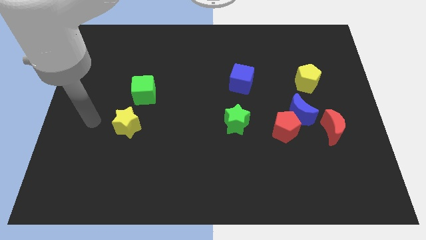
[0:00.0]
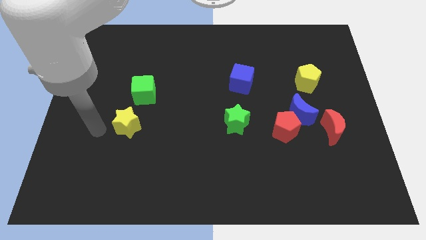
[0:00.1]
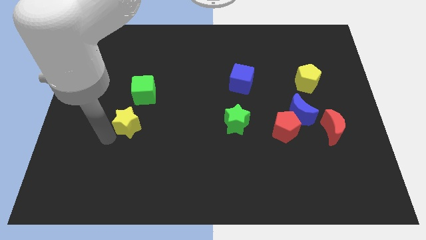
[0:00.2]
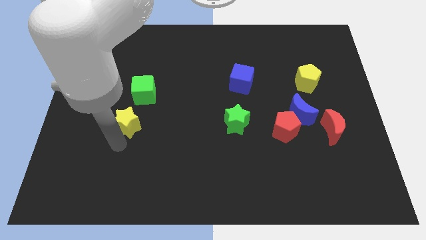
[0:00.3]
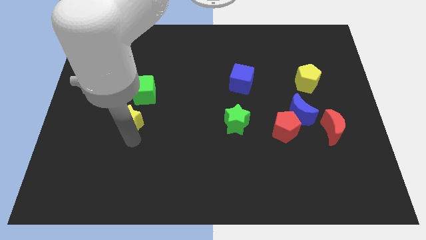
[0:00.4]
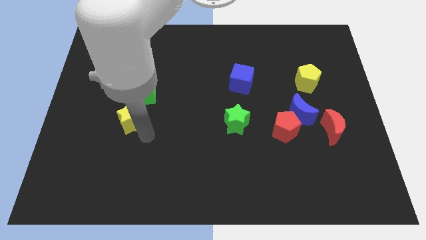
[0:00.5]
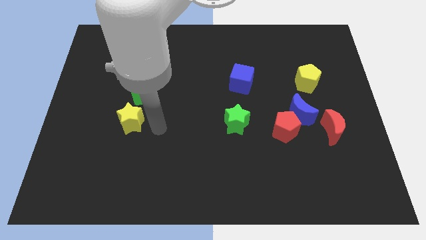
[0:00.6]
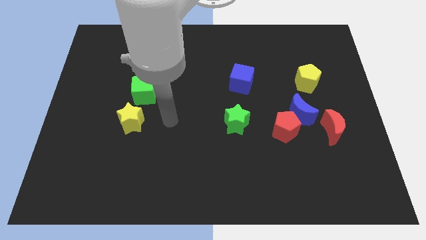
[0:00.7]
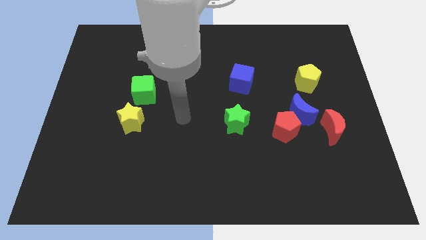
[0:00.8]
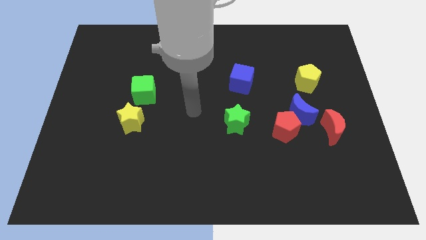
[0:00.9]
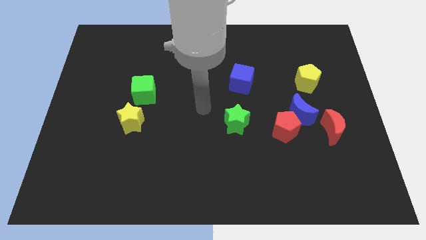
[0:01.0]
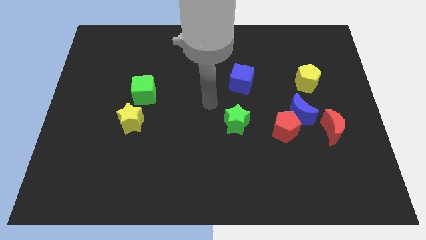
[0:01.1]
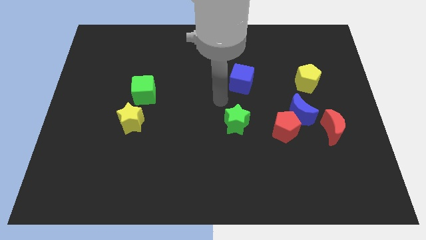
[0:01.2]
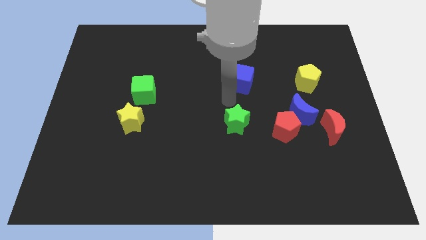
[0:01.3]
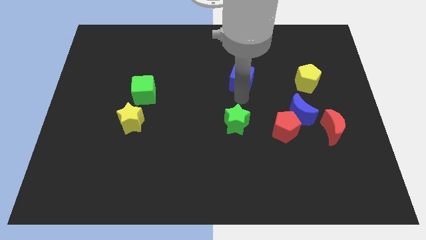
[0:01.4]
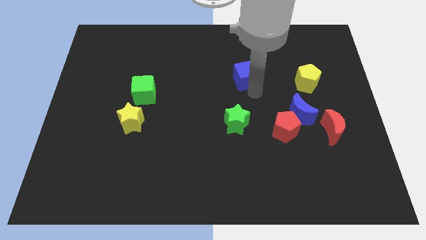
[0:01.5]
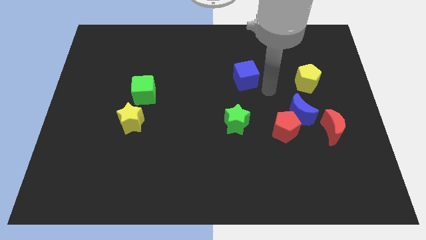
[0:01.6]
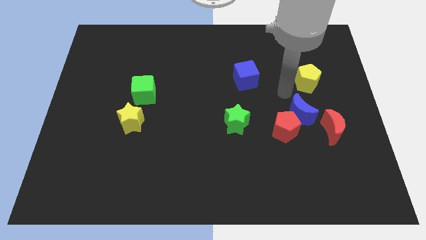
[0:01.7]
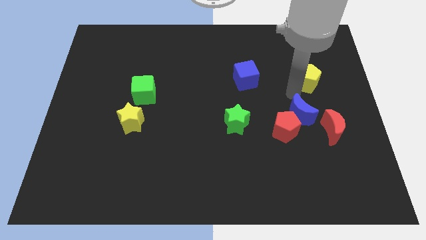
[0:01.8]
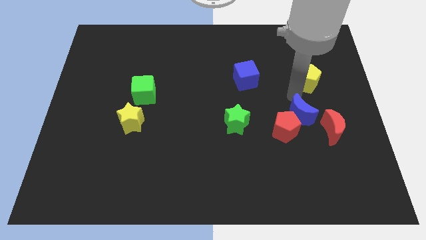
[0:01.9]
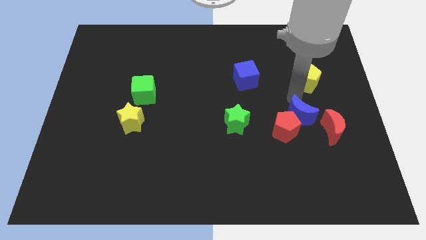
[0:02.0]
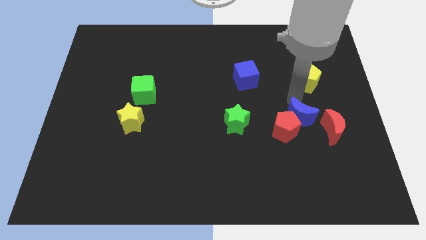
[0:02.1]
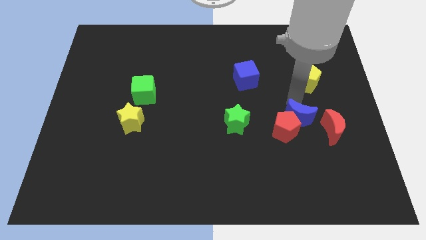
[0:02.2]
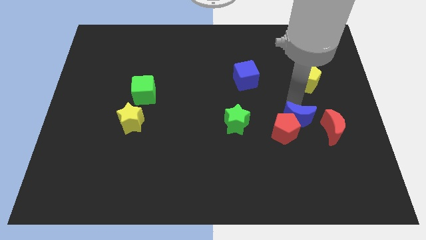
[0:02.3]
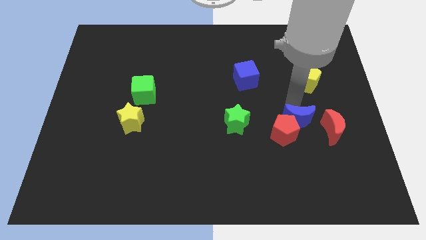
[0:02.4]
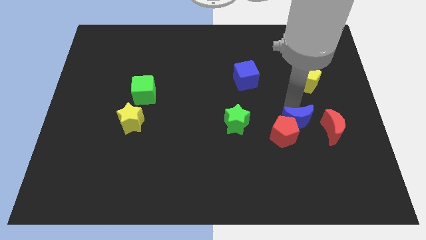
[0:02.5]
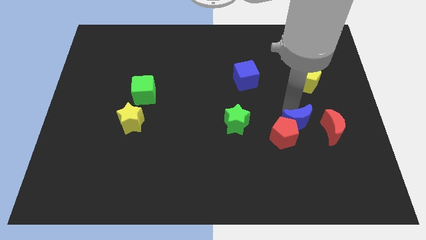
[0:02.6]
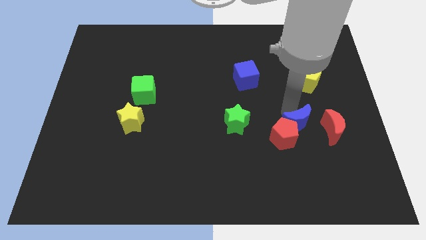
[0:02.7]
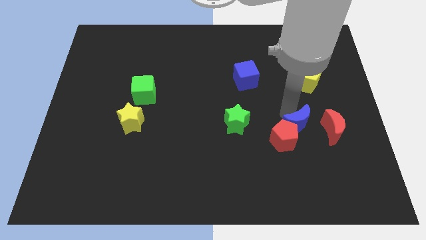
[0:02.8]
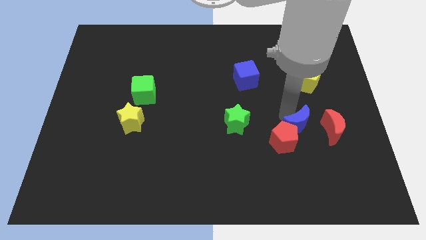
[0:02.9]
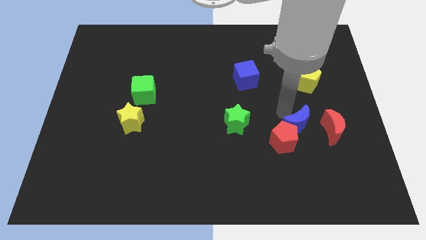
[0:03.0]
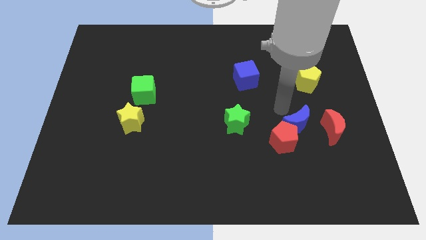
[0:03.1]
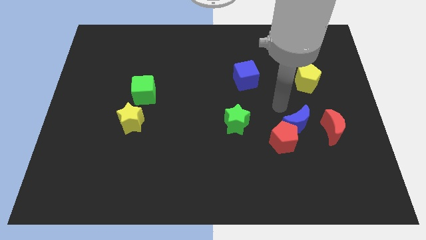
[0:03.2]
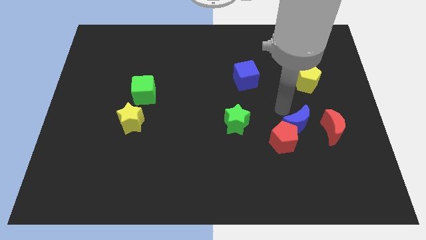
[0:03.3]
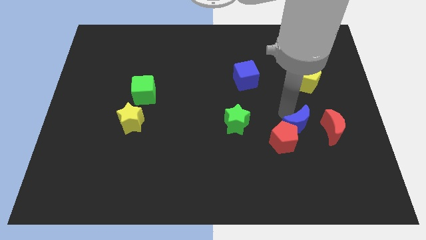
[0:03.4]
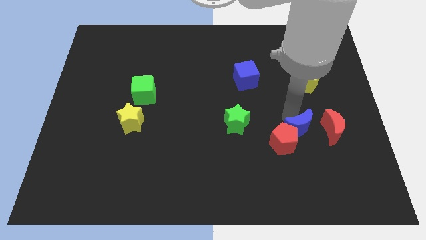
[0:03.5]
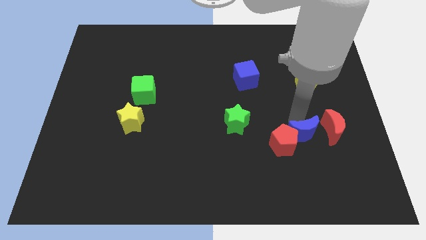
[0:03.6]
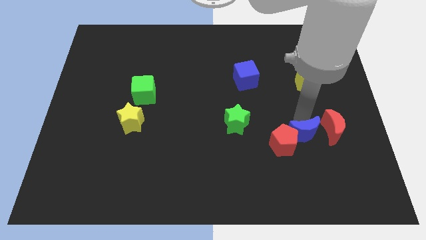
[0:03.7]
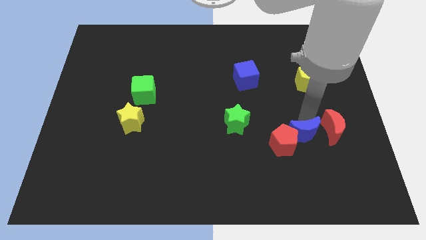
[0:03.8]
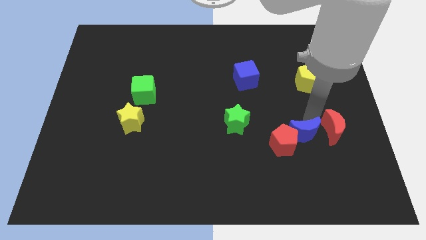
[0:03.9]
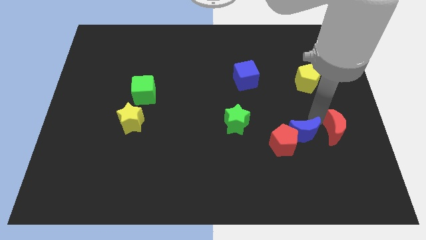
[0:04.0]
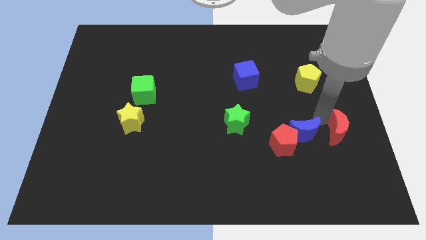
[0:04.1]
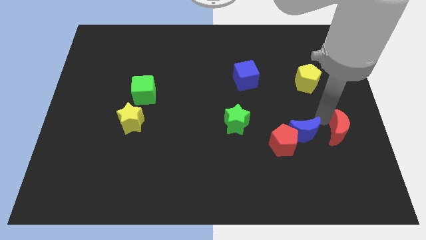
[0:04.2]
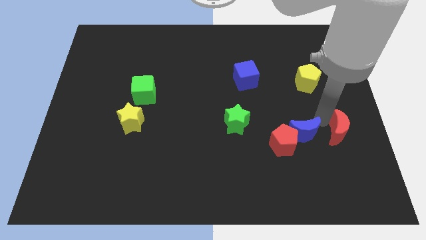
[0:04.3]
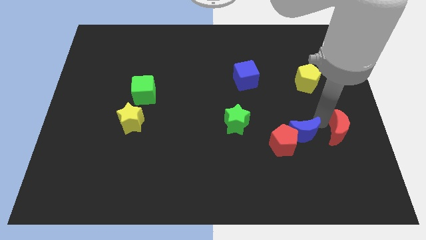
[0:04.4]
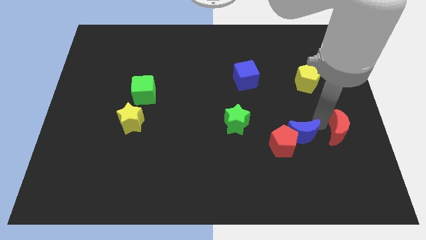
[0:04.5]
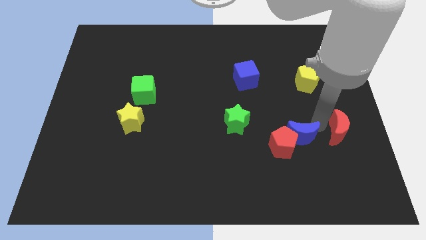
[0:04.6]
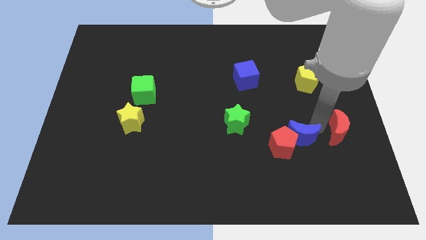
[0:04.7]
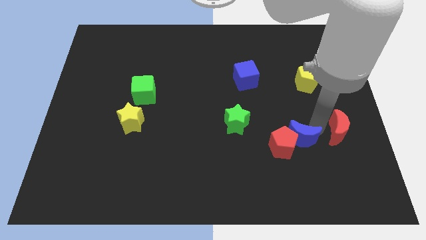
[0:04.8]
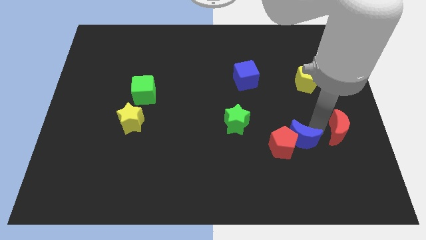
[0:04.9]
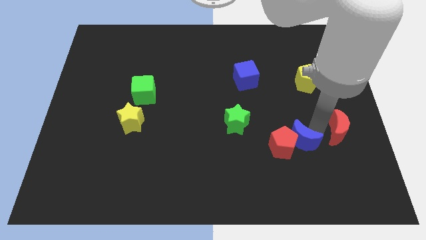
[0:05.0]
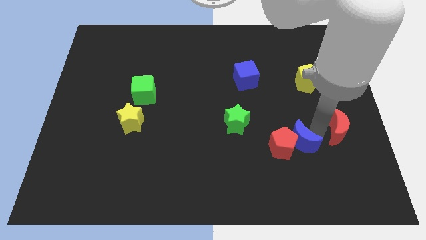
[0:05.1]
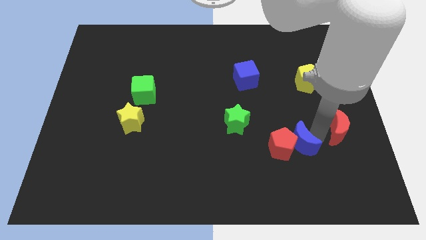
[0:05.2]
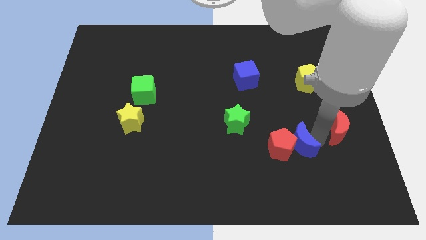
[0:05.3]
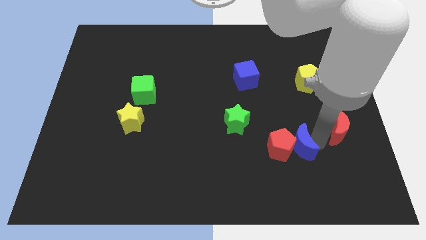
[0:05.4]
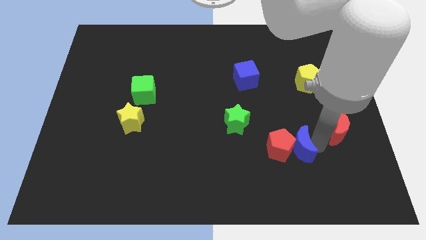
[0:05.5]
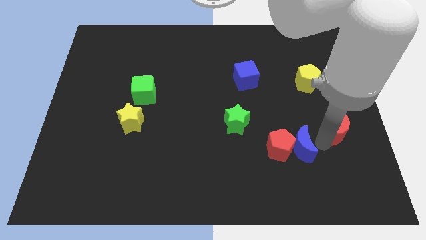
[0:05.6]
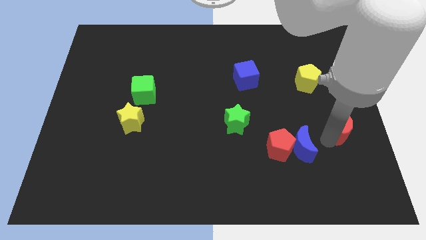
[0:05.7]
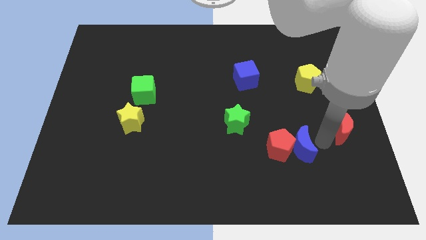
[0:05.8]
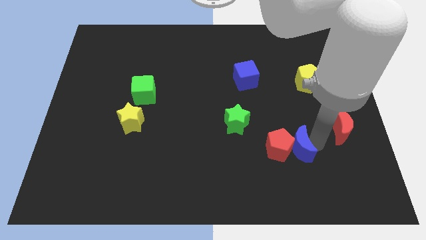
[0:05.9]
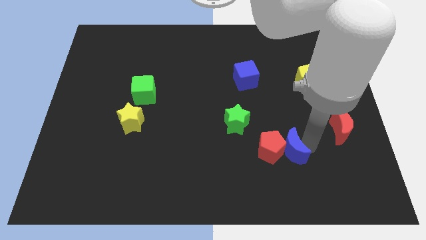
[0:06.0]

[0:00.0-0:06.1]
slide the blue moon a little bit downwards and to the left diagonally

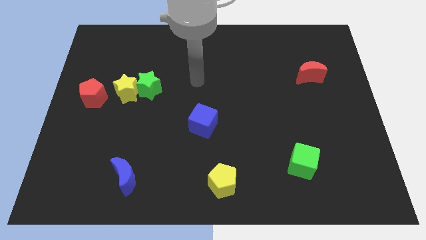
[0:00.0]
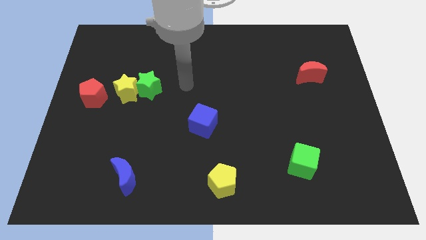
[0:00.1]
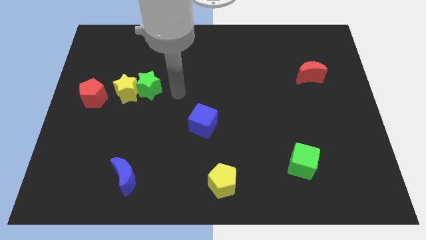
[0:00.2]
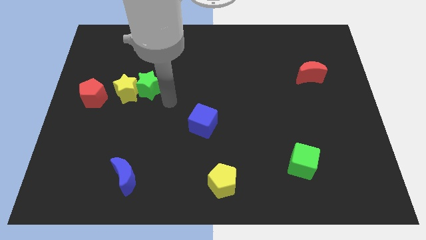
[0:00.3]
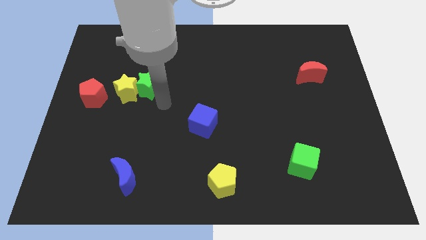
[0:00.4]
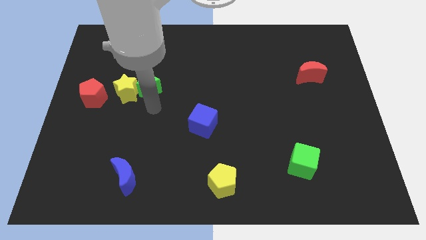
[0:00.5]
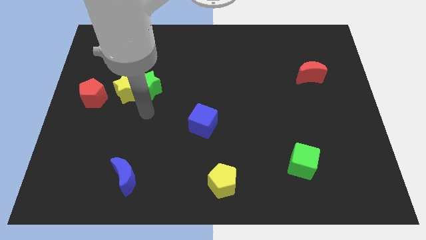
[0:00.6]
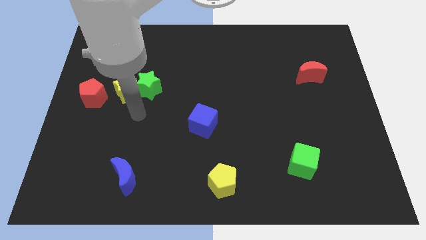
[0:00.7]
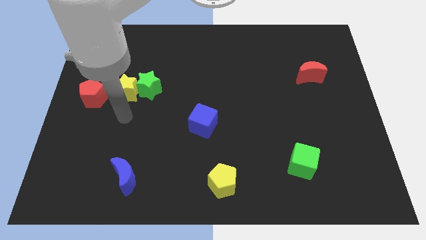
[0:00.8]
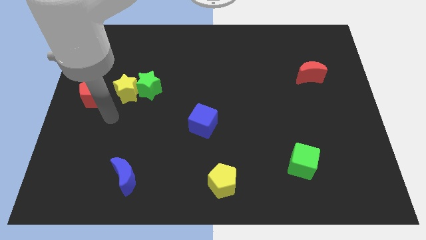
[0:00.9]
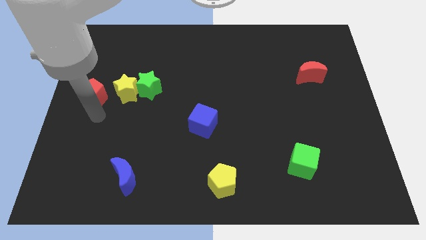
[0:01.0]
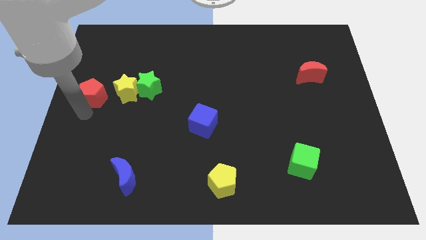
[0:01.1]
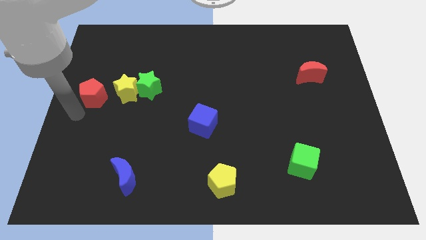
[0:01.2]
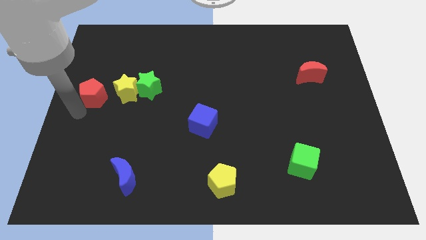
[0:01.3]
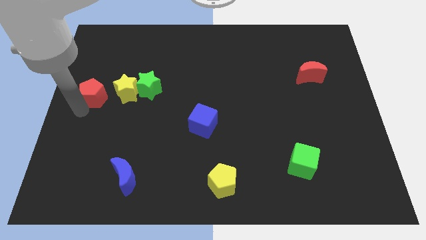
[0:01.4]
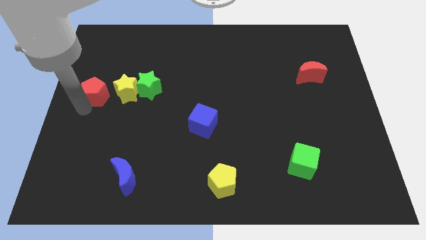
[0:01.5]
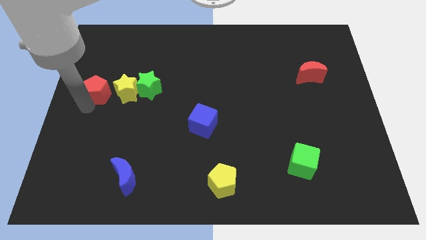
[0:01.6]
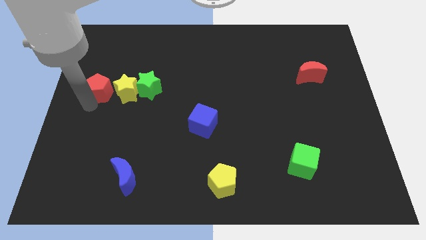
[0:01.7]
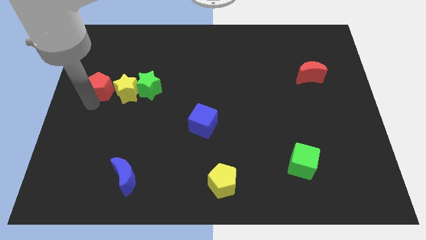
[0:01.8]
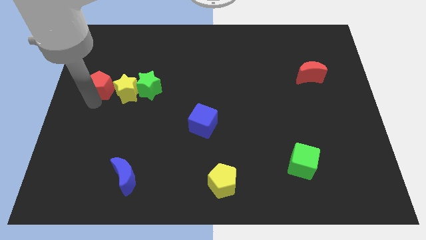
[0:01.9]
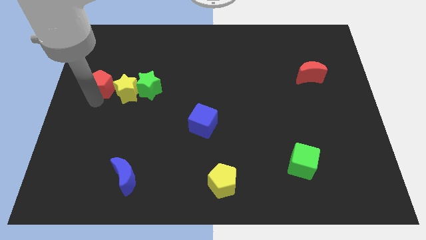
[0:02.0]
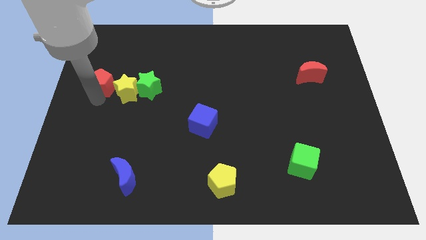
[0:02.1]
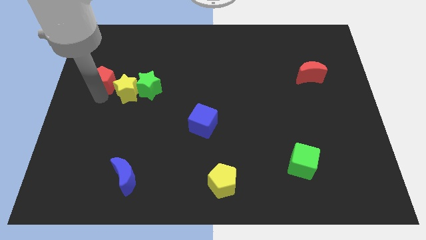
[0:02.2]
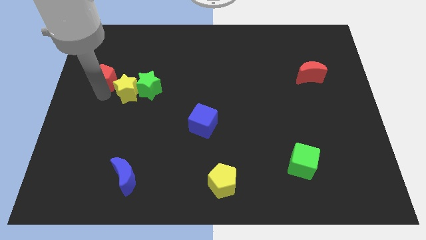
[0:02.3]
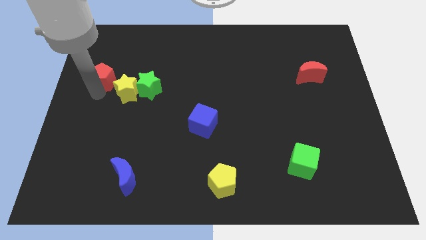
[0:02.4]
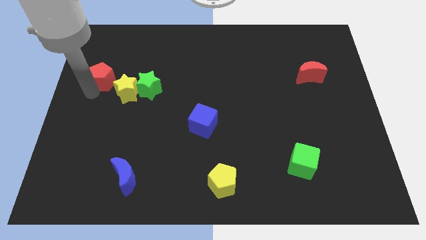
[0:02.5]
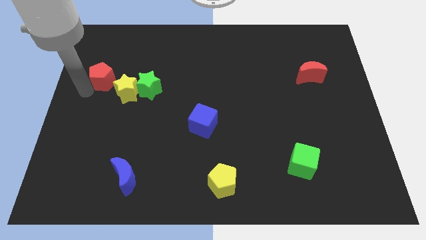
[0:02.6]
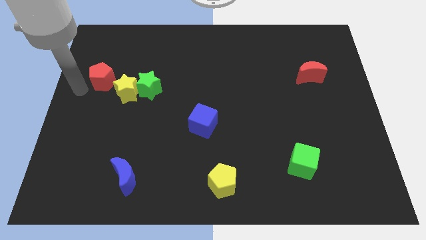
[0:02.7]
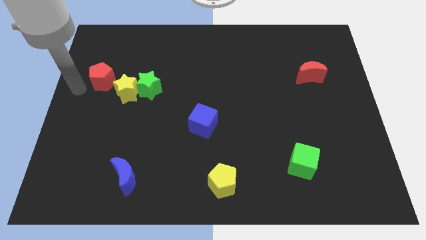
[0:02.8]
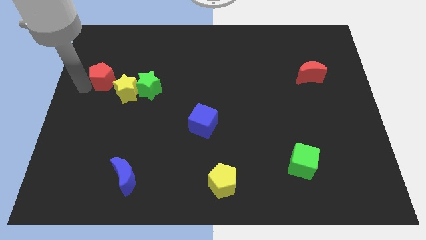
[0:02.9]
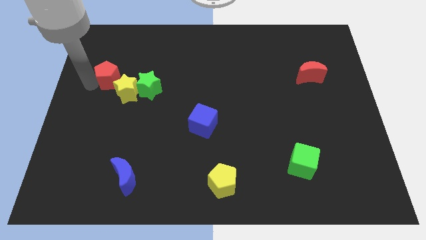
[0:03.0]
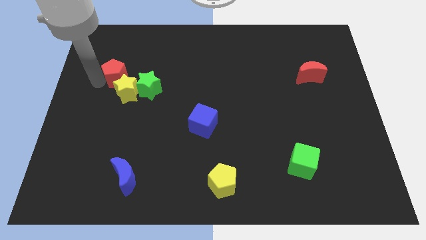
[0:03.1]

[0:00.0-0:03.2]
slide the red pentagon a bit diagonally up and right
